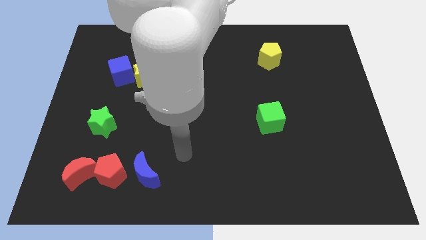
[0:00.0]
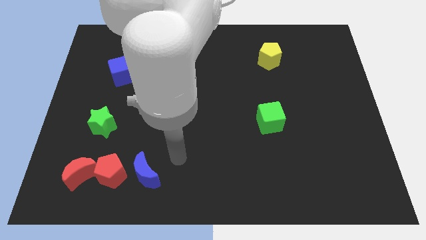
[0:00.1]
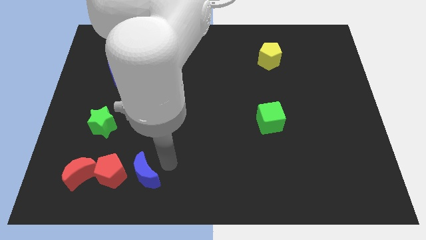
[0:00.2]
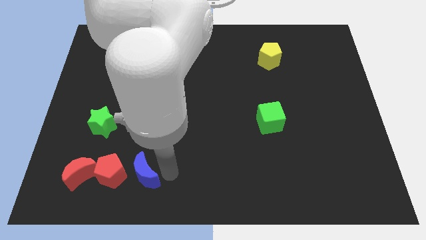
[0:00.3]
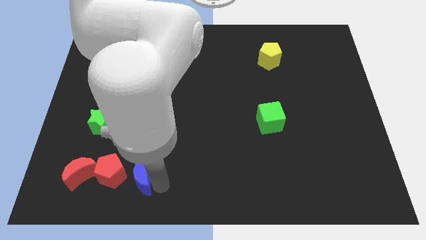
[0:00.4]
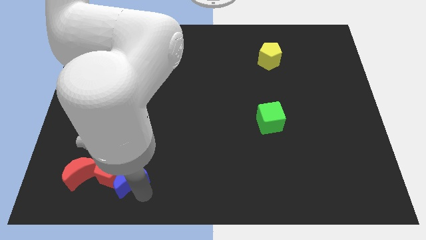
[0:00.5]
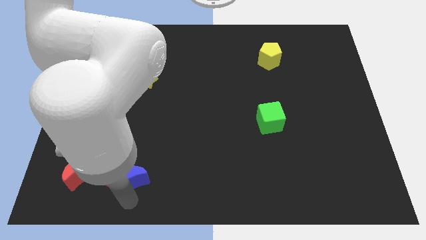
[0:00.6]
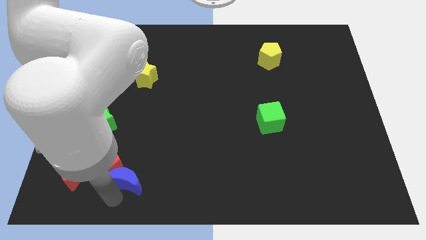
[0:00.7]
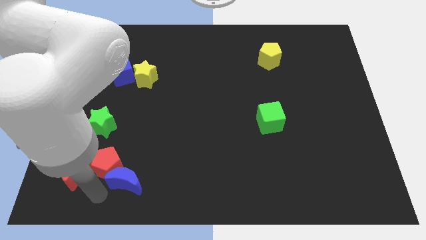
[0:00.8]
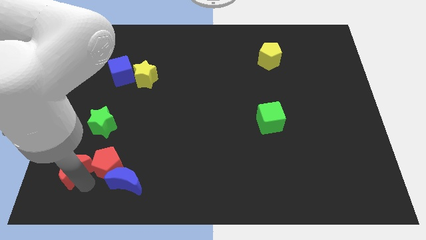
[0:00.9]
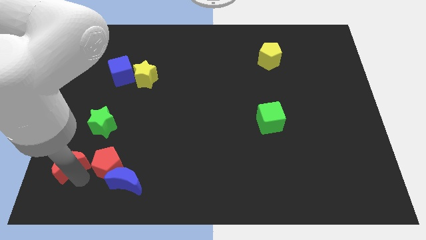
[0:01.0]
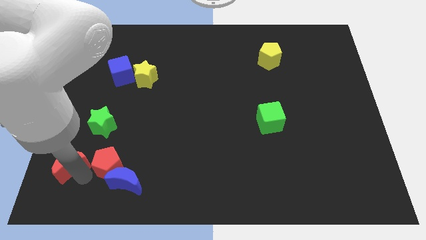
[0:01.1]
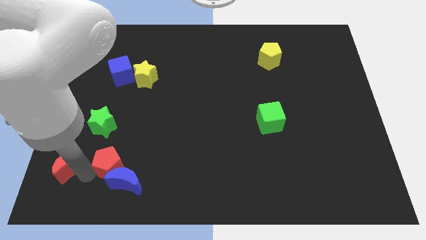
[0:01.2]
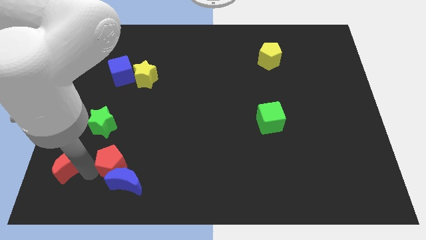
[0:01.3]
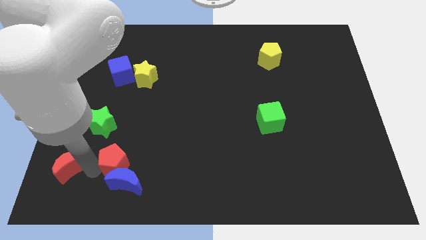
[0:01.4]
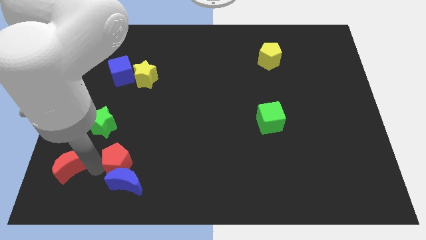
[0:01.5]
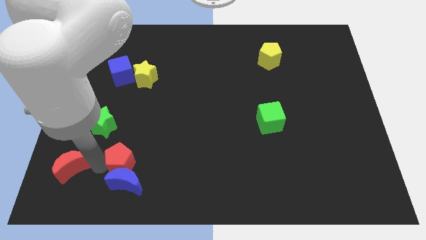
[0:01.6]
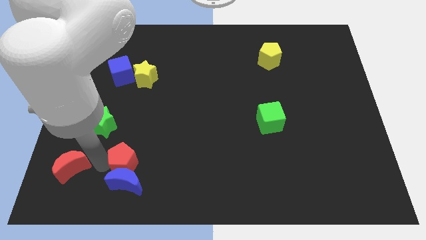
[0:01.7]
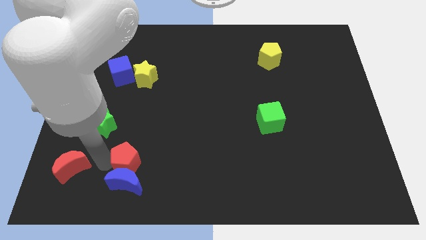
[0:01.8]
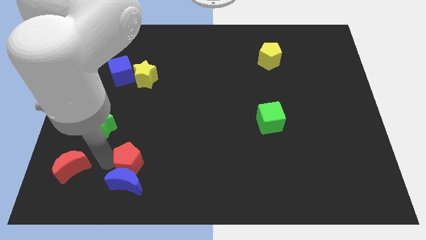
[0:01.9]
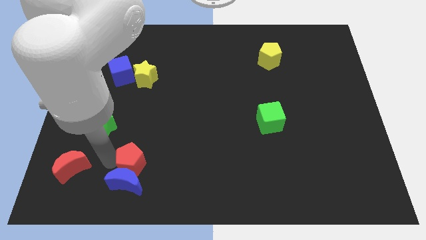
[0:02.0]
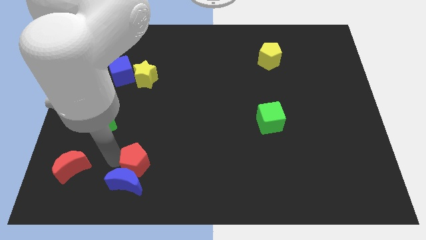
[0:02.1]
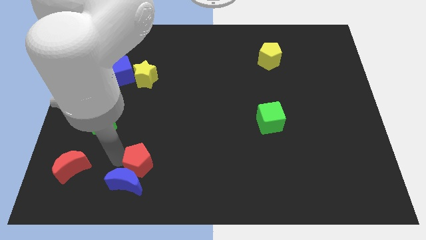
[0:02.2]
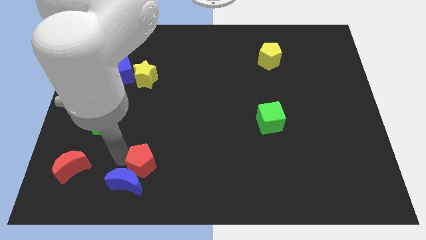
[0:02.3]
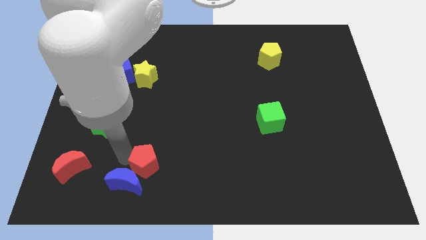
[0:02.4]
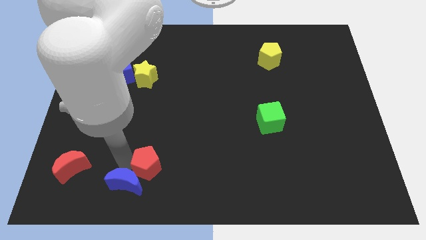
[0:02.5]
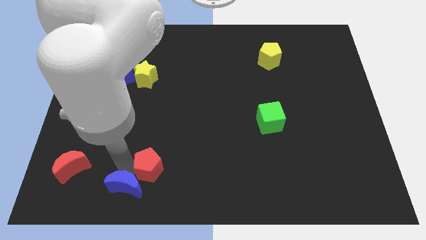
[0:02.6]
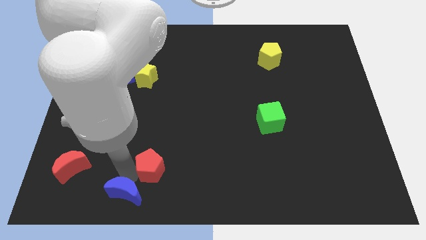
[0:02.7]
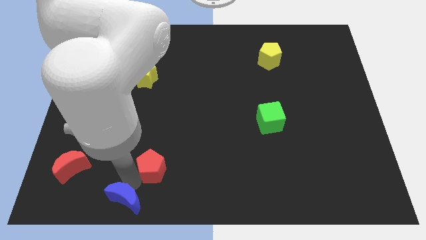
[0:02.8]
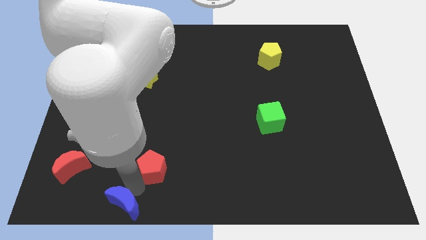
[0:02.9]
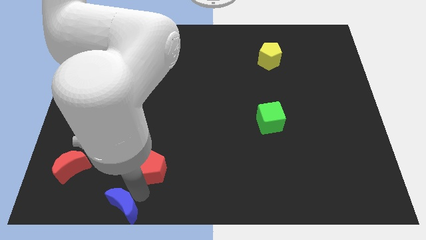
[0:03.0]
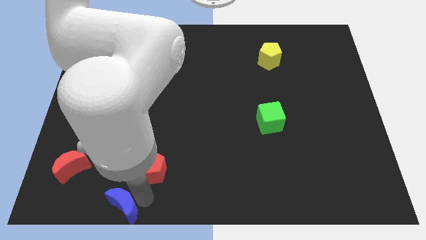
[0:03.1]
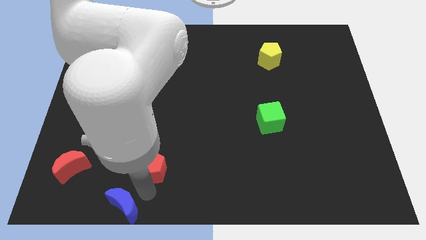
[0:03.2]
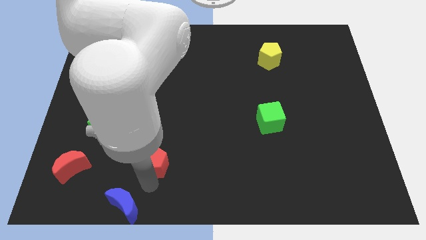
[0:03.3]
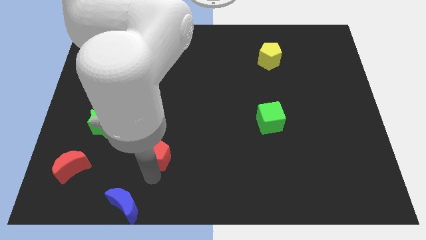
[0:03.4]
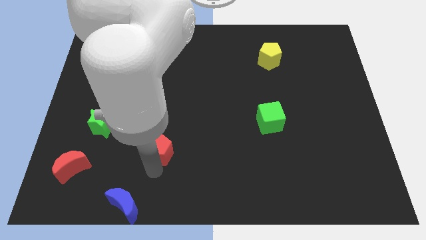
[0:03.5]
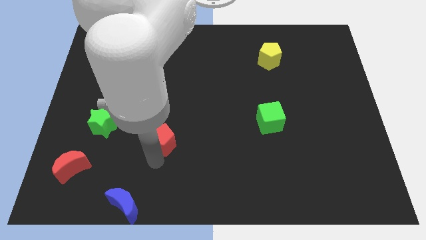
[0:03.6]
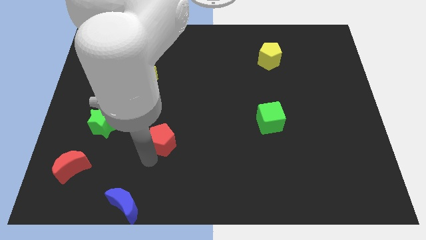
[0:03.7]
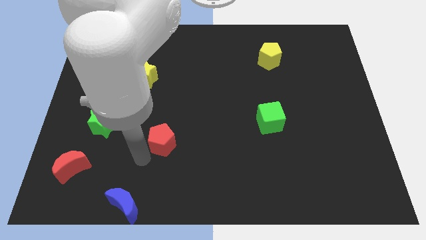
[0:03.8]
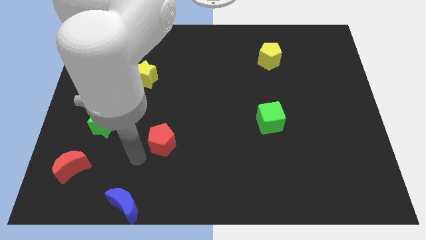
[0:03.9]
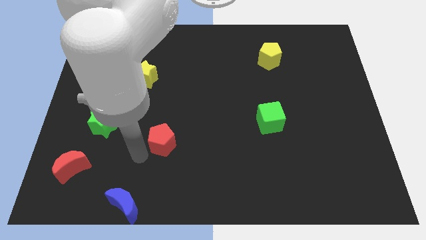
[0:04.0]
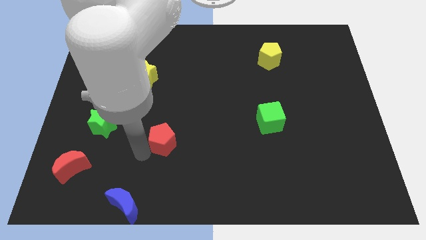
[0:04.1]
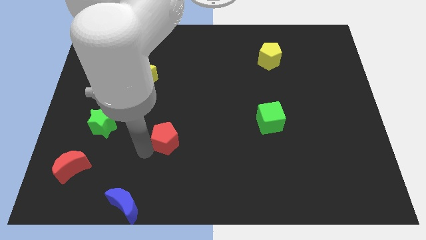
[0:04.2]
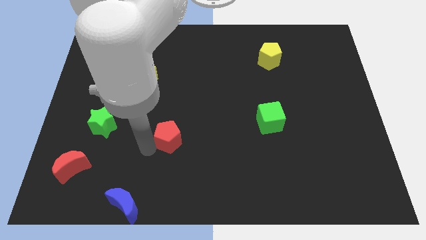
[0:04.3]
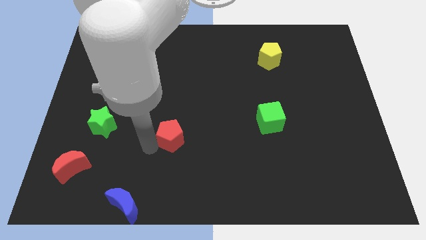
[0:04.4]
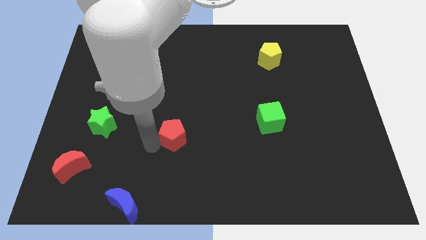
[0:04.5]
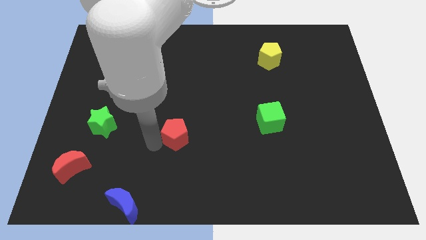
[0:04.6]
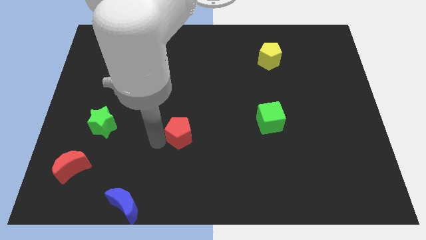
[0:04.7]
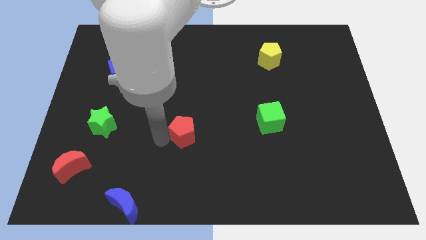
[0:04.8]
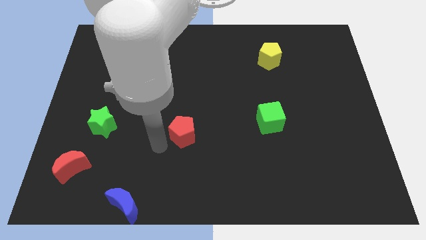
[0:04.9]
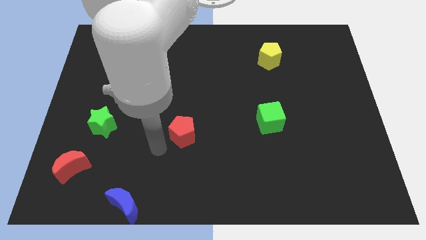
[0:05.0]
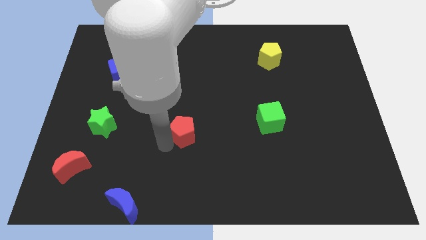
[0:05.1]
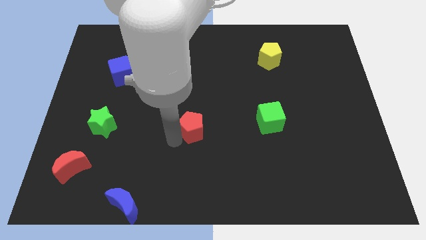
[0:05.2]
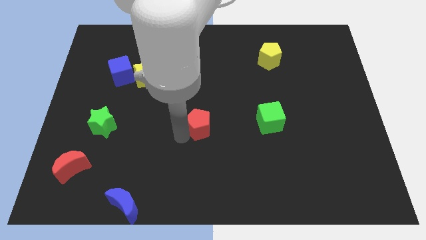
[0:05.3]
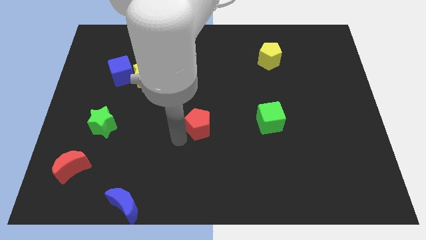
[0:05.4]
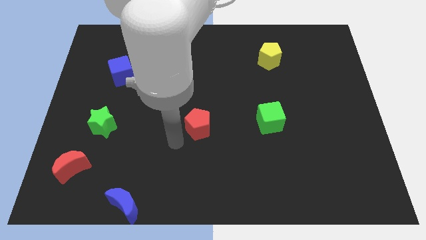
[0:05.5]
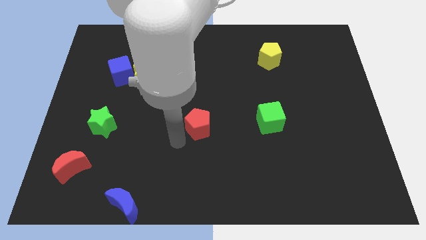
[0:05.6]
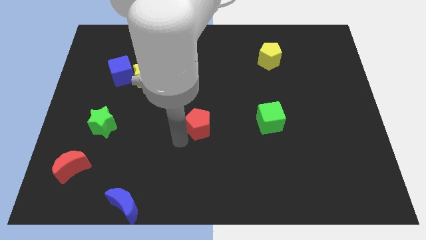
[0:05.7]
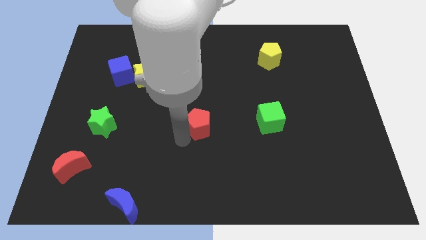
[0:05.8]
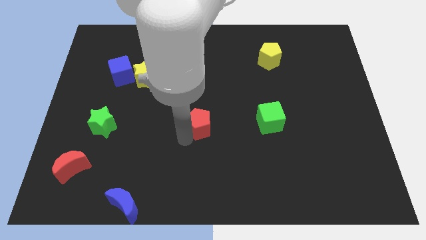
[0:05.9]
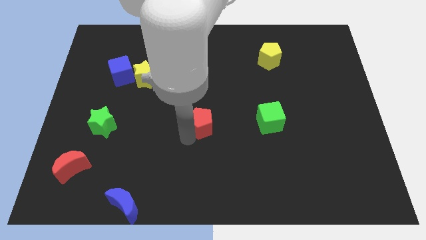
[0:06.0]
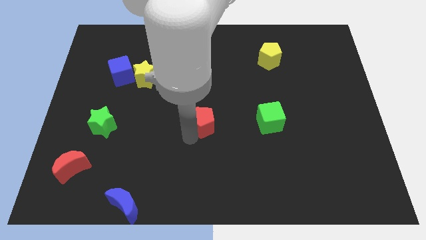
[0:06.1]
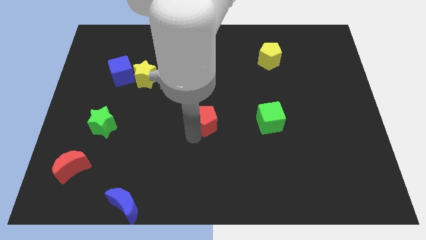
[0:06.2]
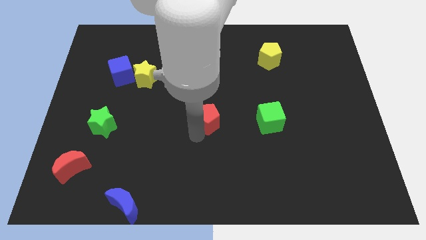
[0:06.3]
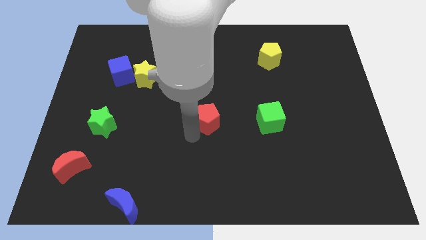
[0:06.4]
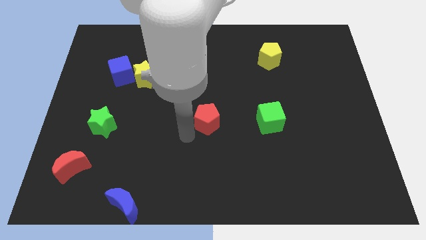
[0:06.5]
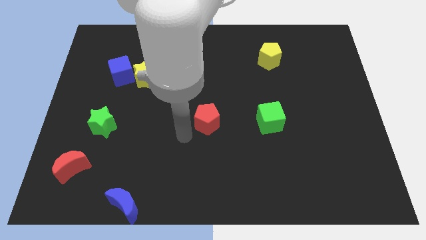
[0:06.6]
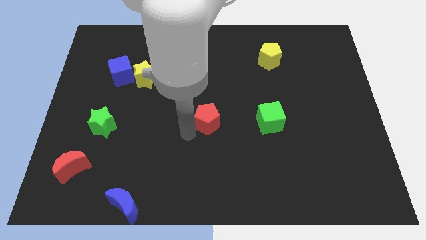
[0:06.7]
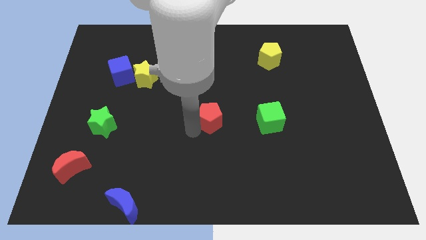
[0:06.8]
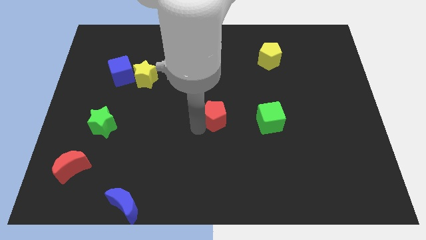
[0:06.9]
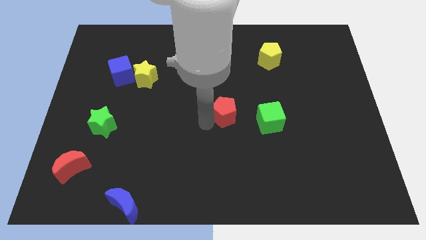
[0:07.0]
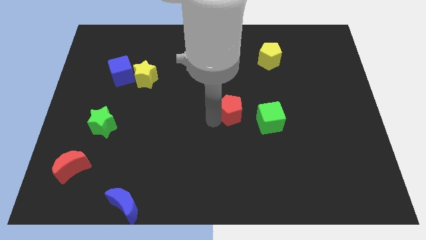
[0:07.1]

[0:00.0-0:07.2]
slide the red pentagon diagonally up and to the left of the green cube
